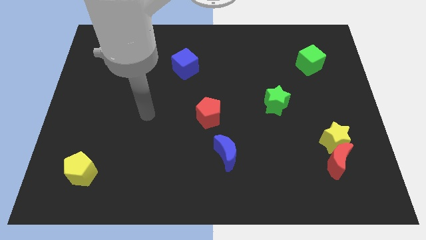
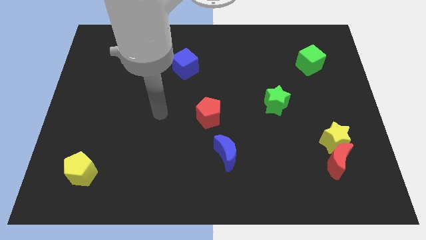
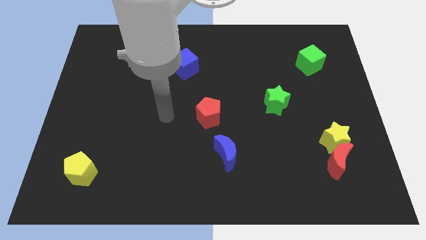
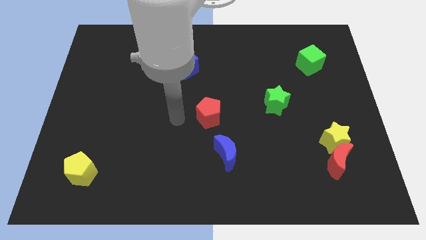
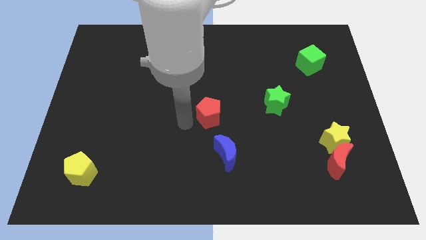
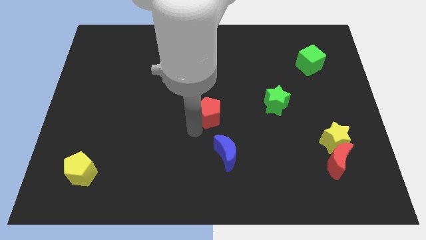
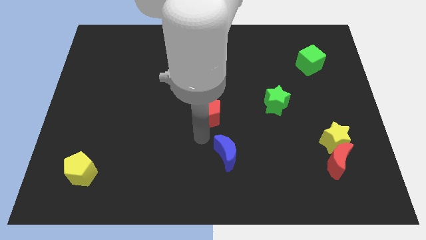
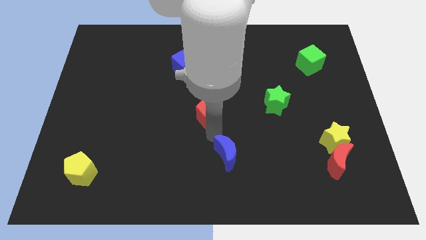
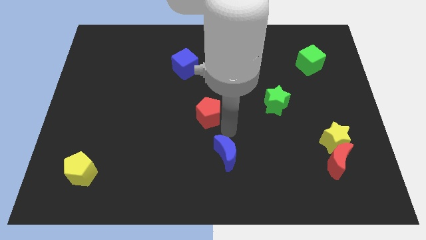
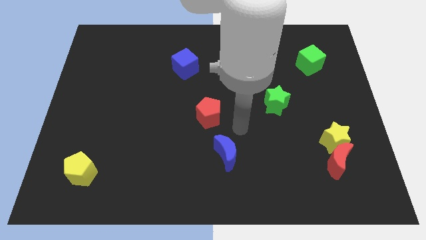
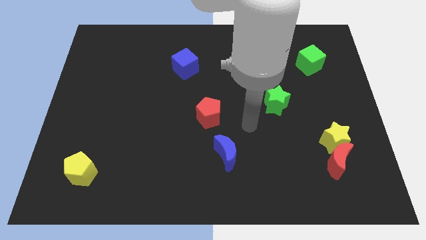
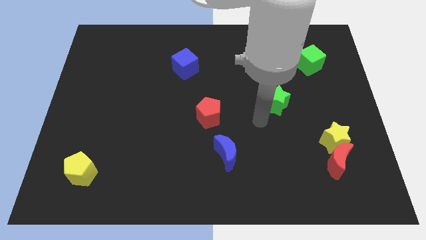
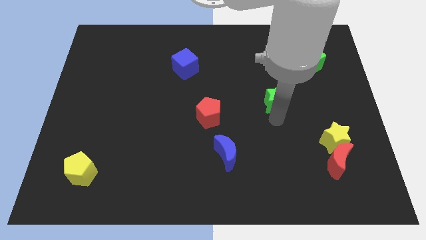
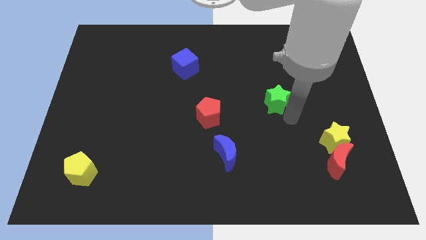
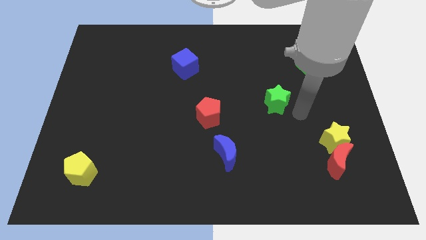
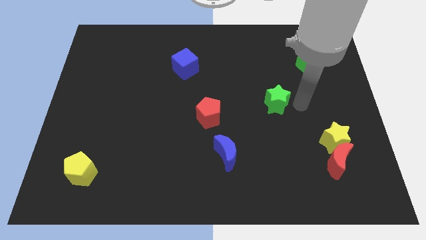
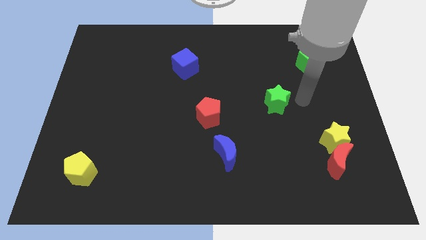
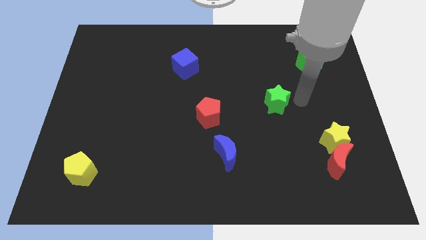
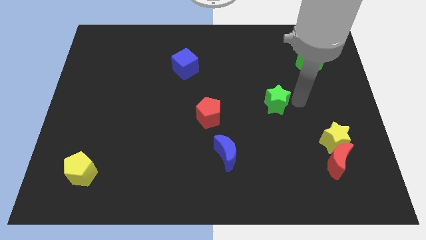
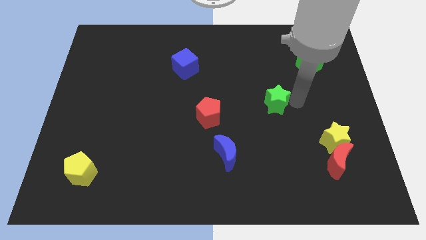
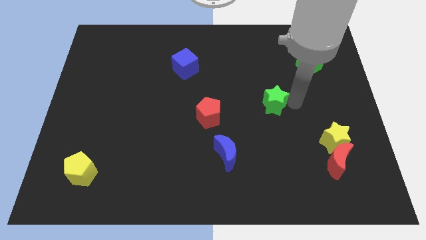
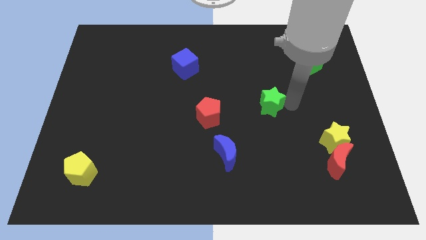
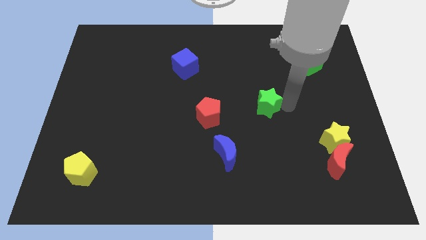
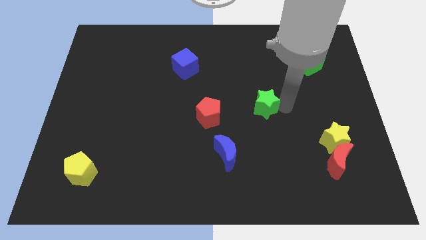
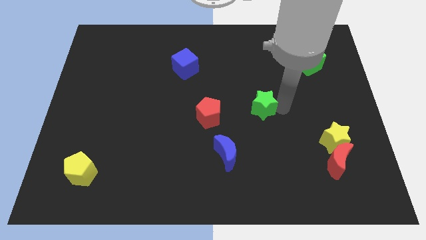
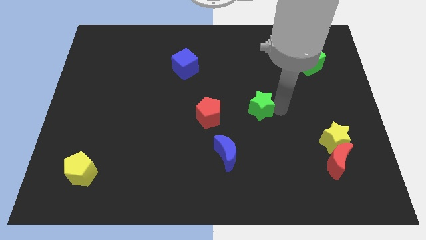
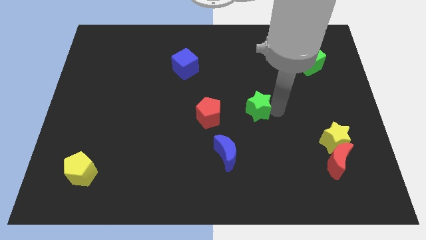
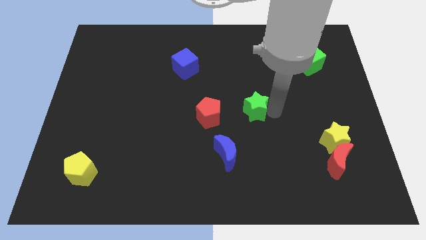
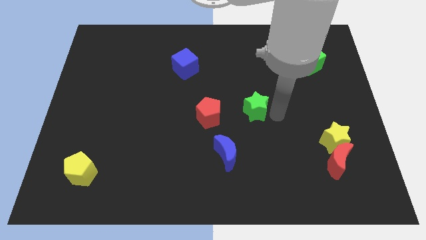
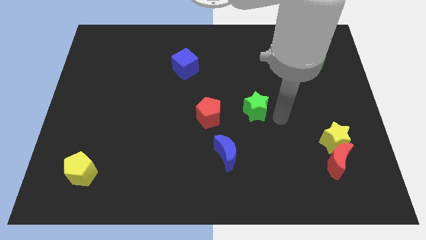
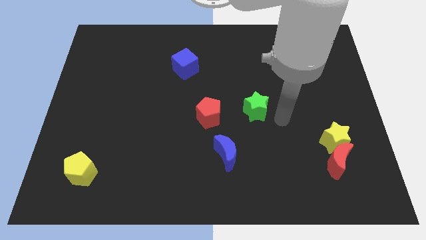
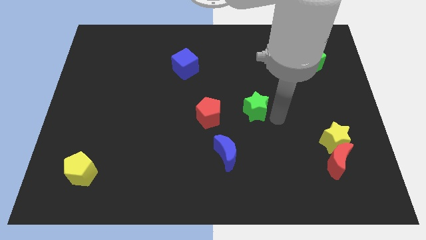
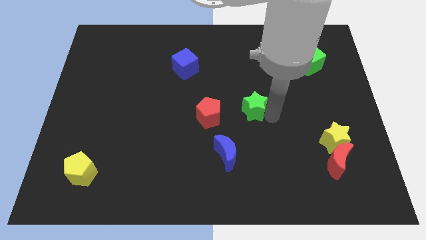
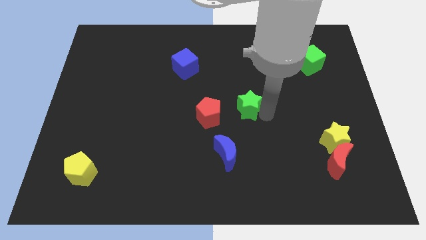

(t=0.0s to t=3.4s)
slide the green star a little bit left

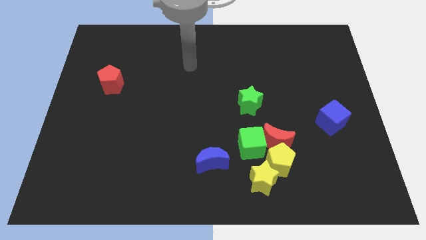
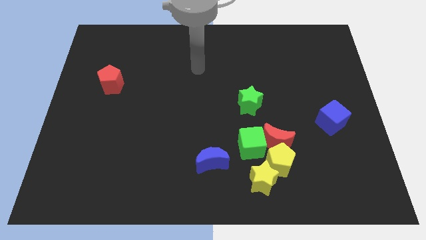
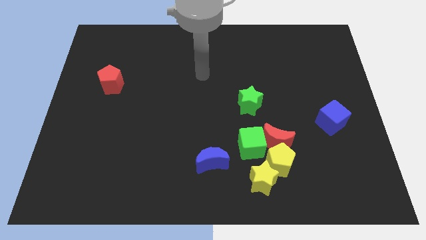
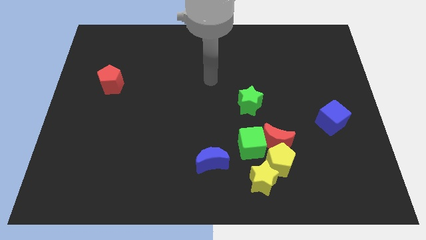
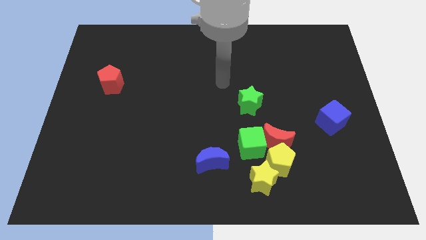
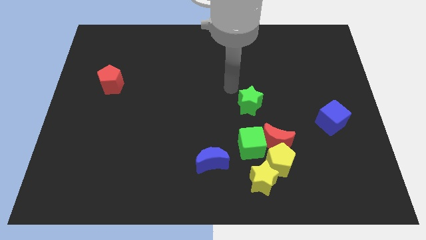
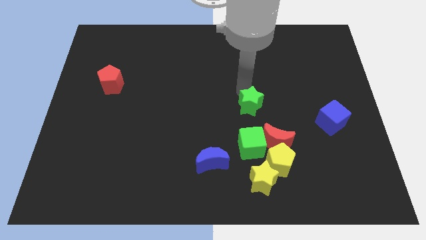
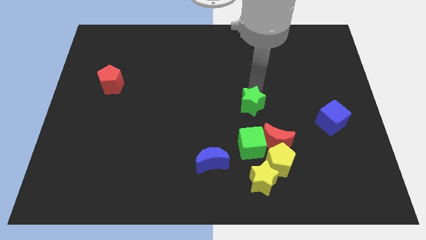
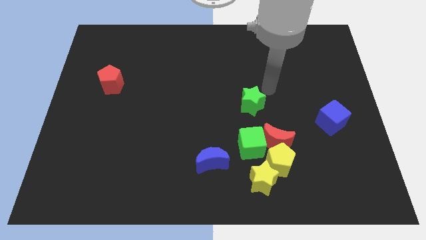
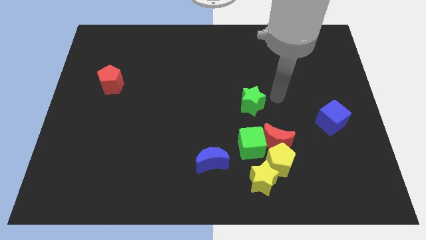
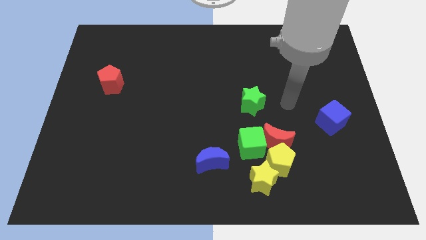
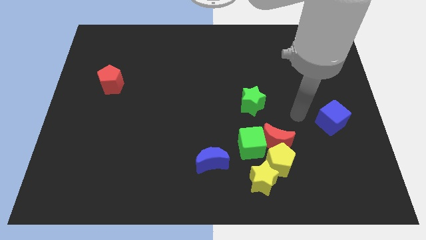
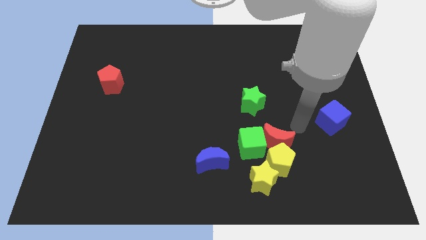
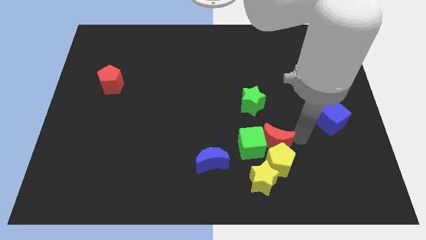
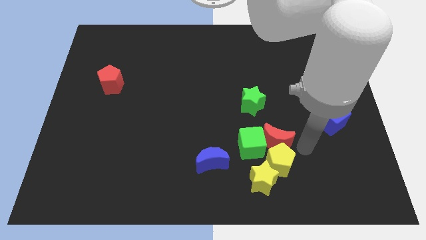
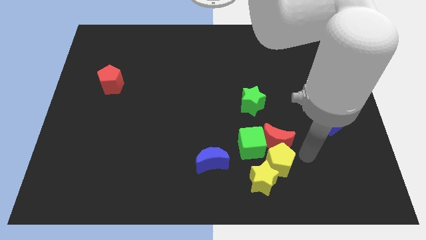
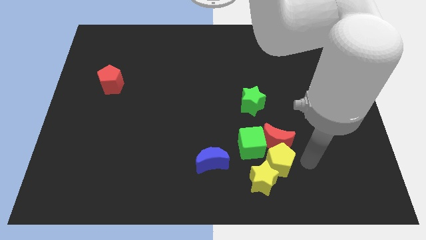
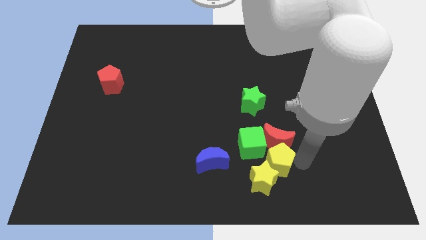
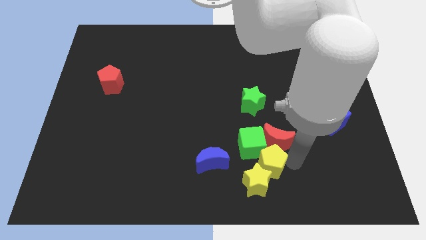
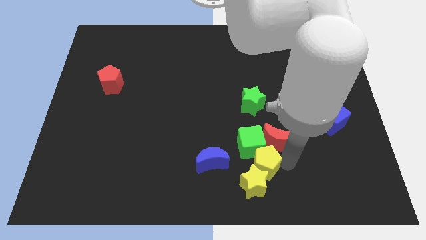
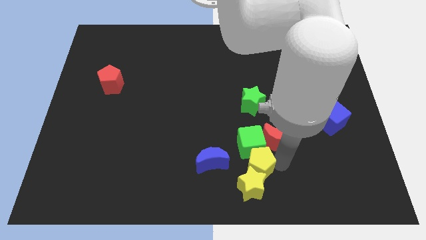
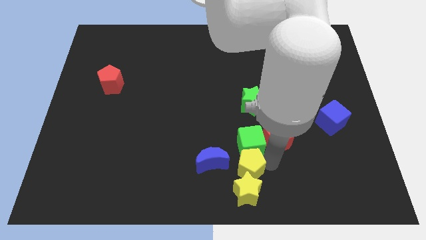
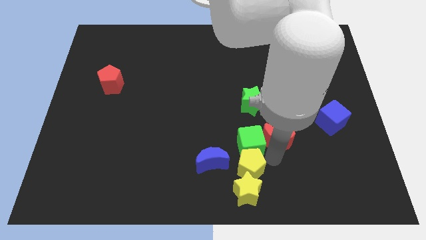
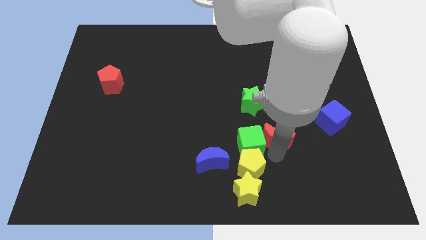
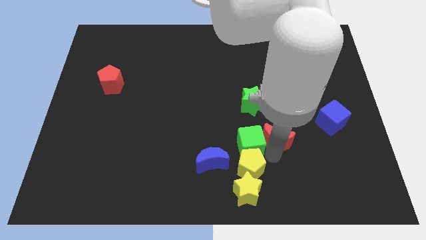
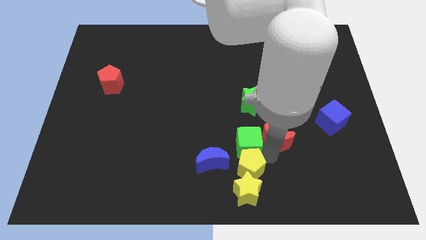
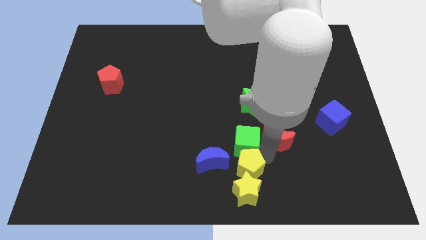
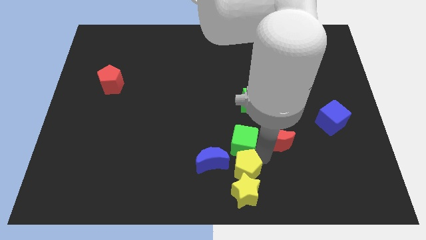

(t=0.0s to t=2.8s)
slightly move the yellow pentagon to the left

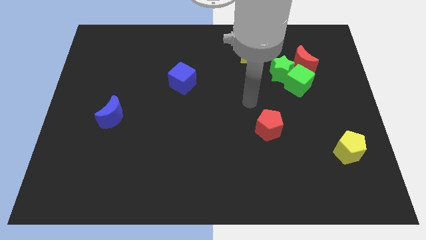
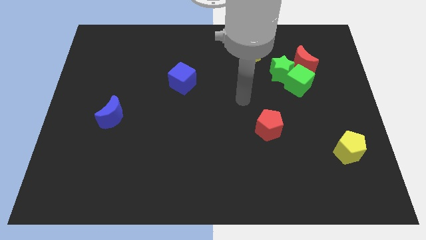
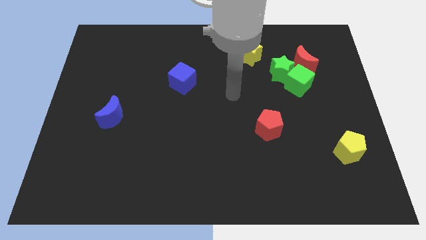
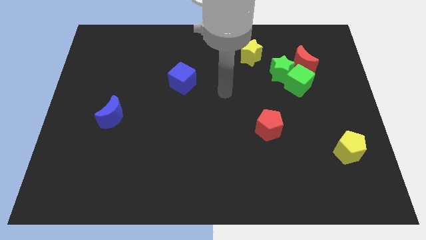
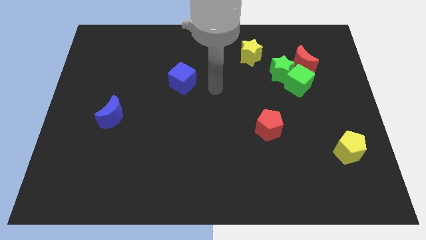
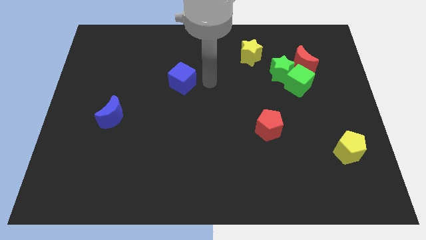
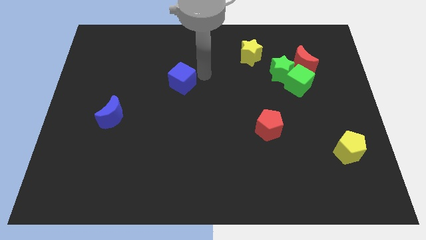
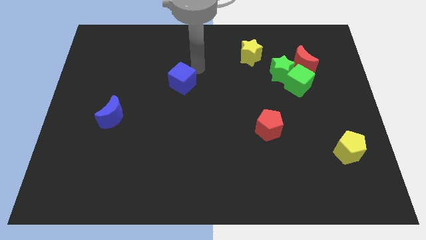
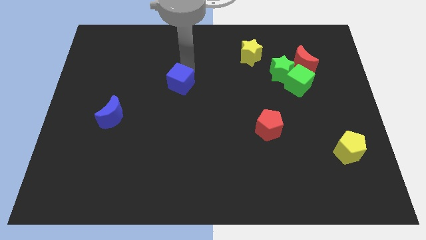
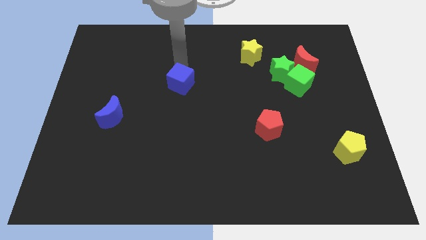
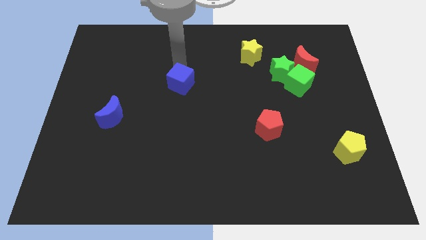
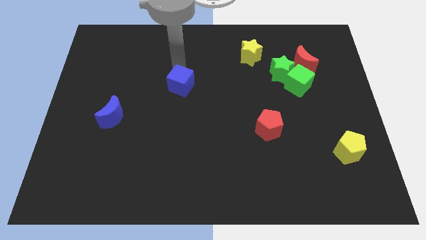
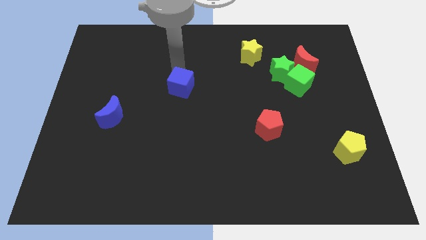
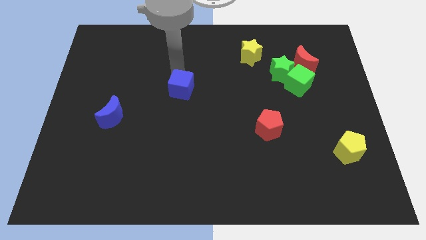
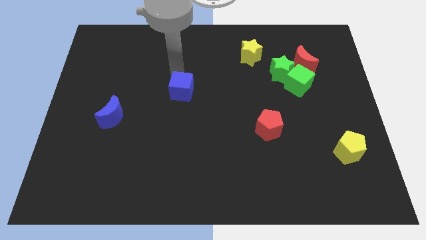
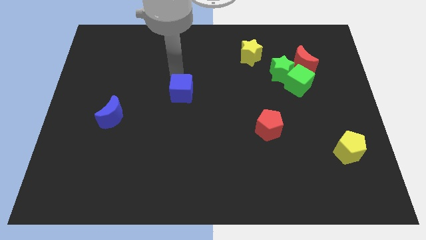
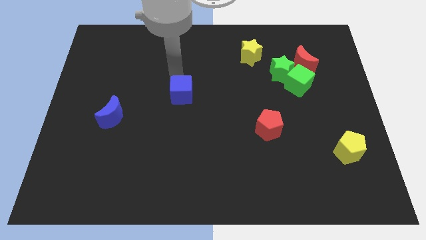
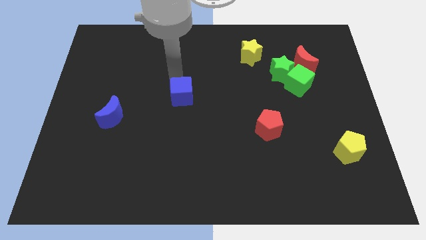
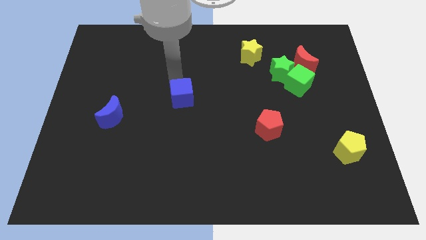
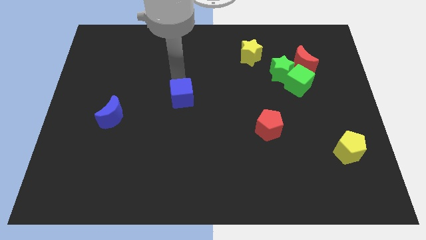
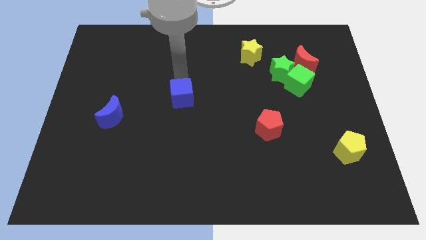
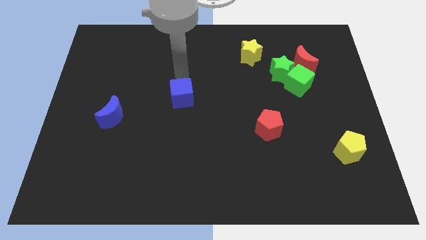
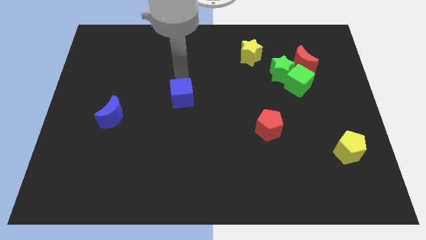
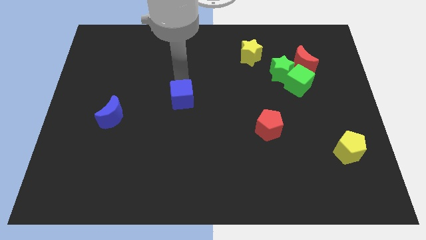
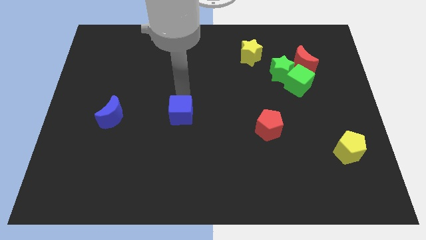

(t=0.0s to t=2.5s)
slide the blue cube downwards a bit
